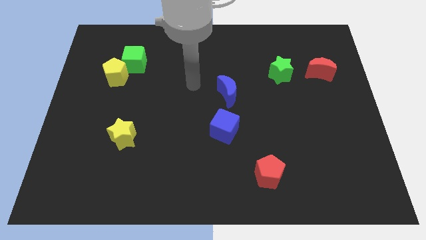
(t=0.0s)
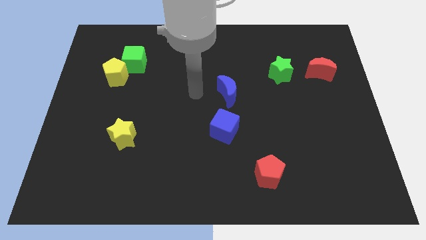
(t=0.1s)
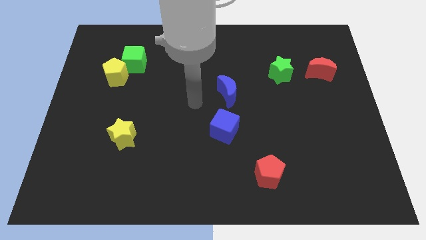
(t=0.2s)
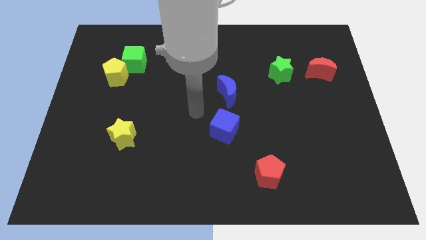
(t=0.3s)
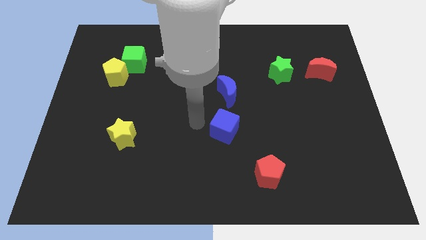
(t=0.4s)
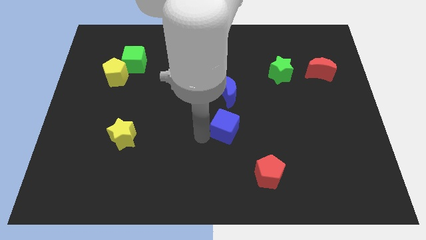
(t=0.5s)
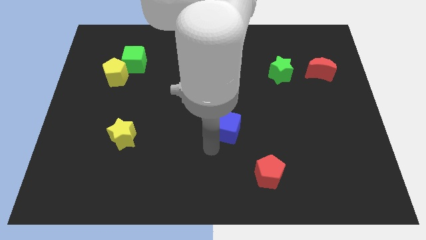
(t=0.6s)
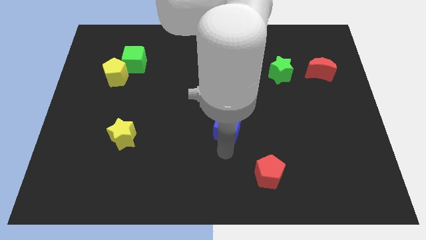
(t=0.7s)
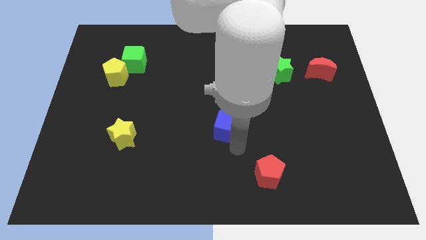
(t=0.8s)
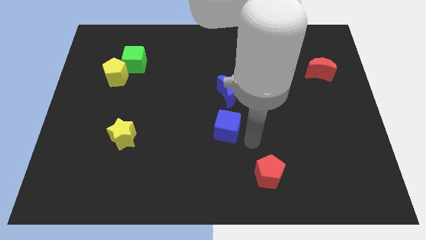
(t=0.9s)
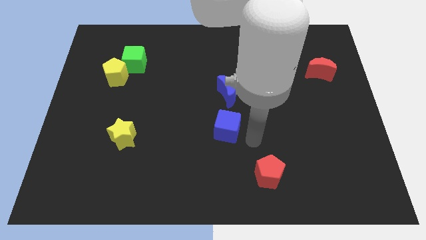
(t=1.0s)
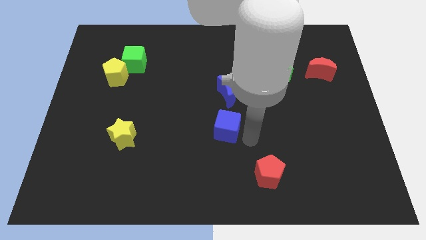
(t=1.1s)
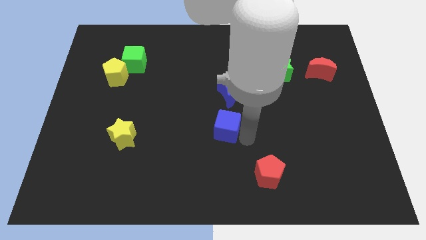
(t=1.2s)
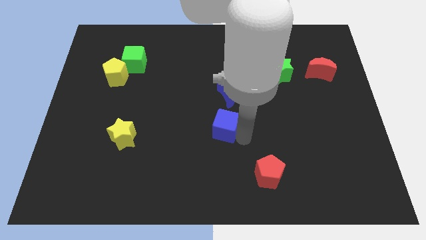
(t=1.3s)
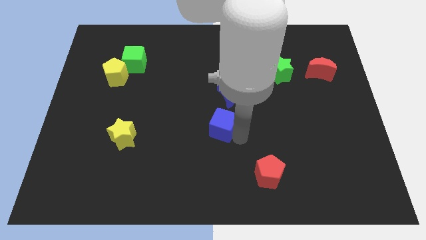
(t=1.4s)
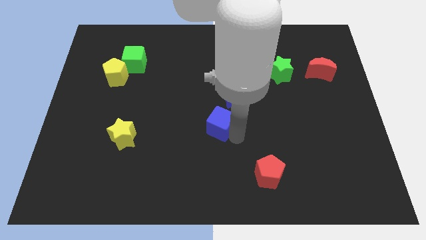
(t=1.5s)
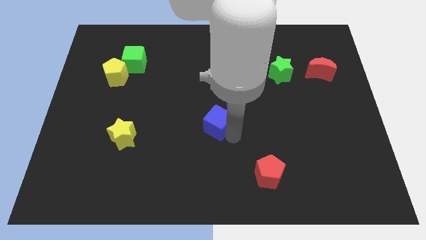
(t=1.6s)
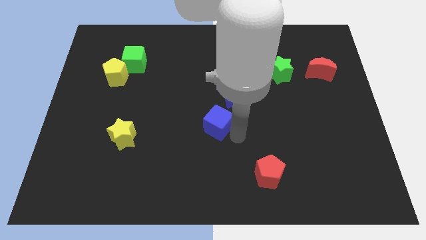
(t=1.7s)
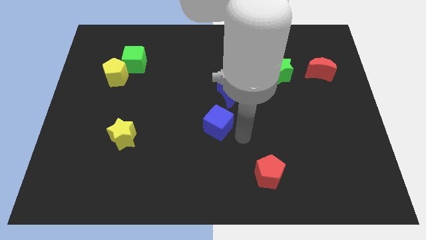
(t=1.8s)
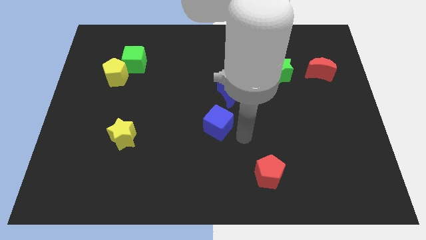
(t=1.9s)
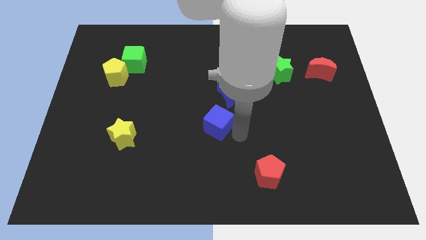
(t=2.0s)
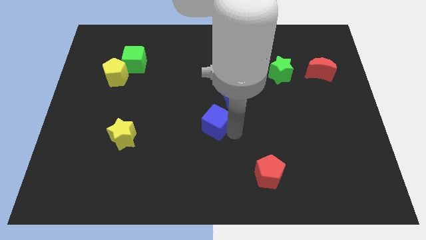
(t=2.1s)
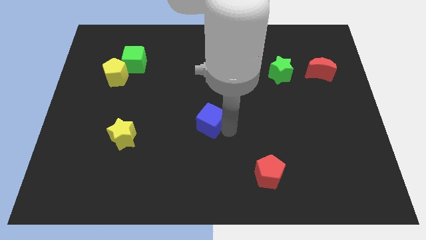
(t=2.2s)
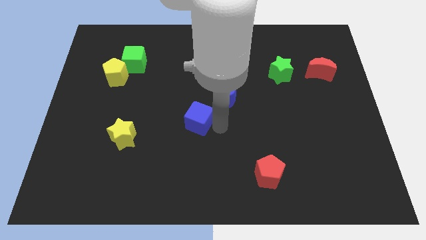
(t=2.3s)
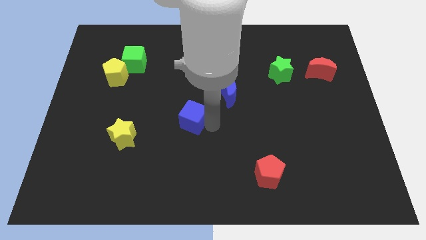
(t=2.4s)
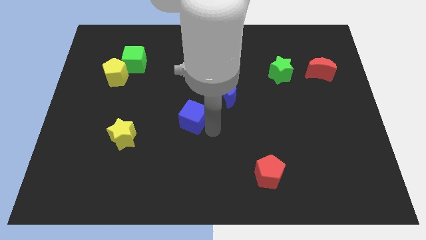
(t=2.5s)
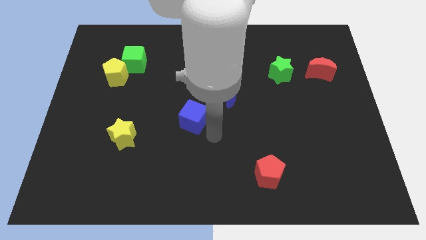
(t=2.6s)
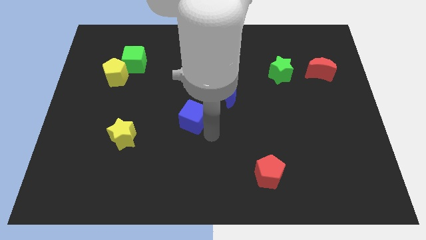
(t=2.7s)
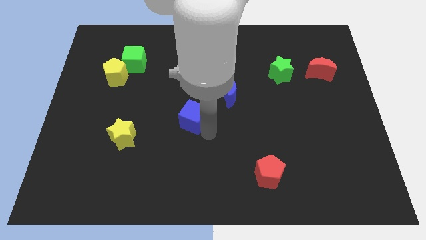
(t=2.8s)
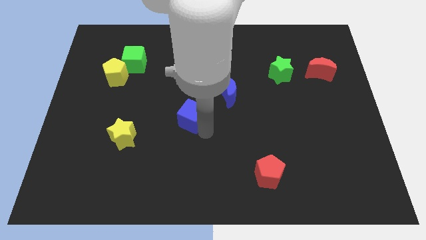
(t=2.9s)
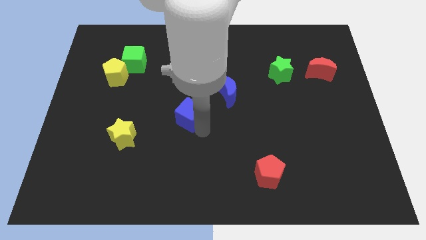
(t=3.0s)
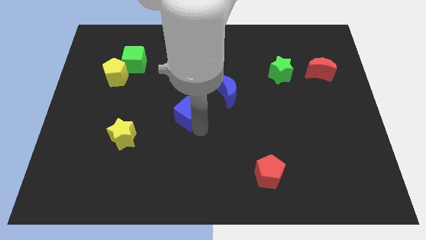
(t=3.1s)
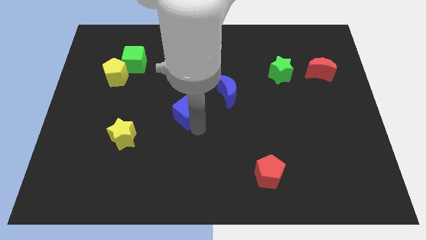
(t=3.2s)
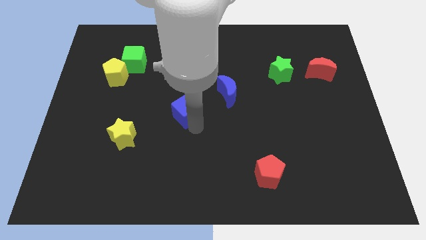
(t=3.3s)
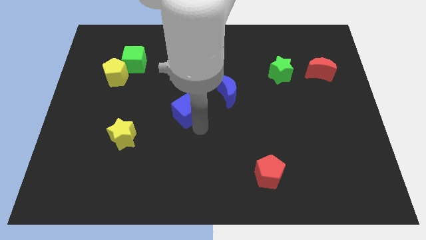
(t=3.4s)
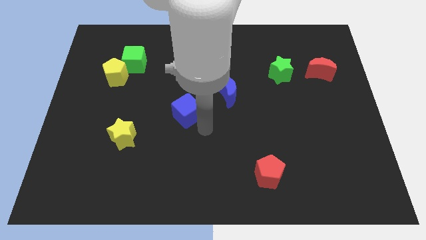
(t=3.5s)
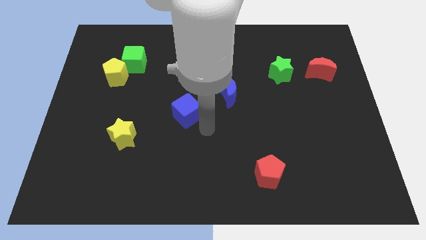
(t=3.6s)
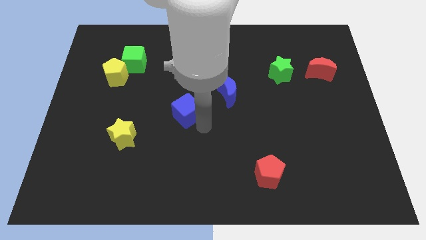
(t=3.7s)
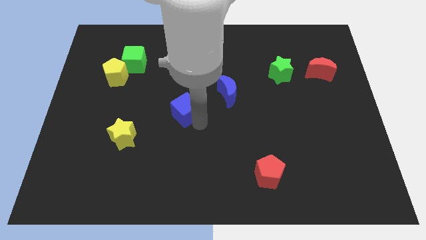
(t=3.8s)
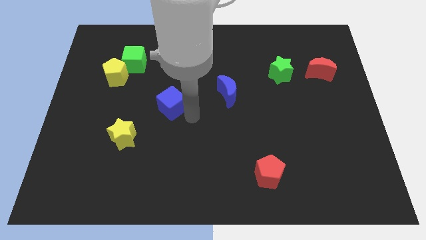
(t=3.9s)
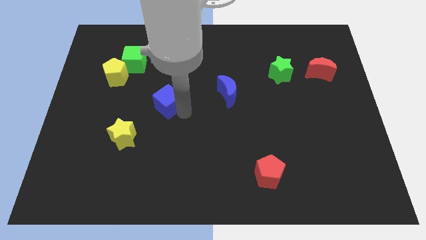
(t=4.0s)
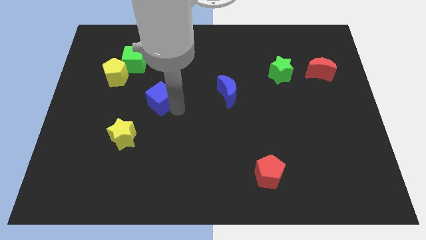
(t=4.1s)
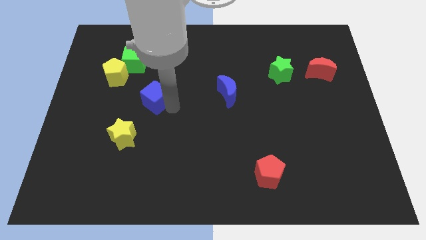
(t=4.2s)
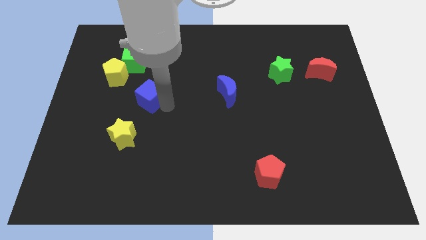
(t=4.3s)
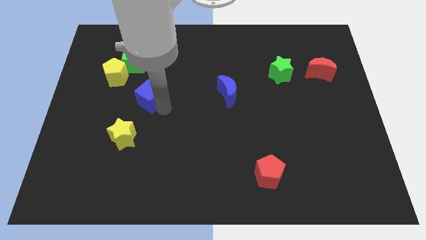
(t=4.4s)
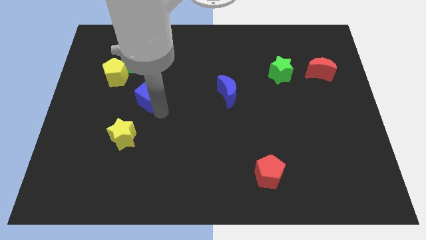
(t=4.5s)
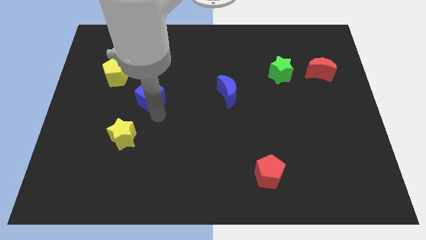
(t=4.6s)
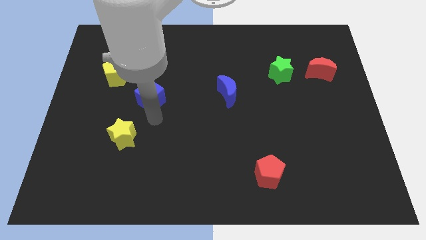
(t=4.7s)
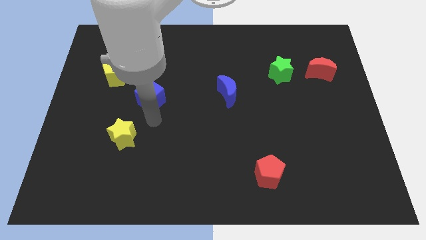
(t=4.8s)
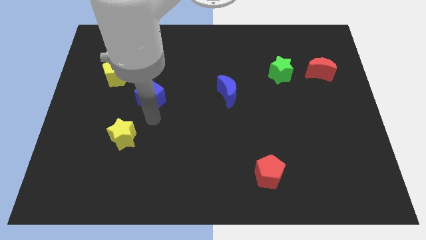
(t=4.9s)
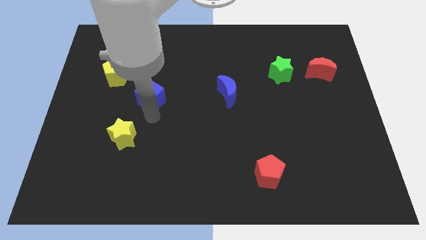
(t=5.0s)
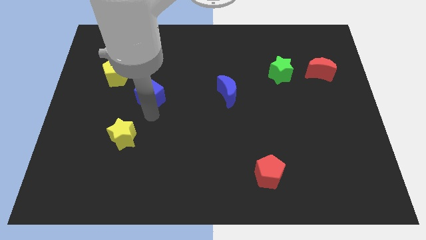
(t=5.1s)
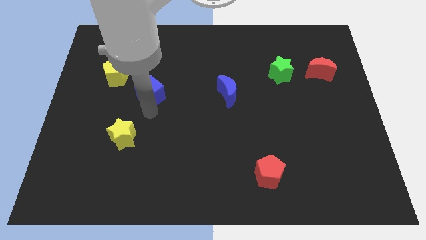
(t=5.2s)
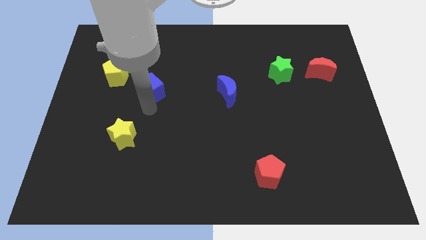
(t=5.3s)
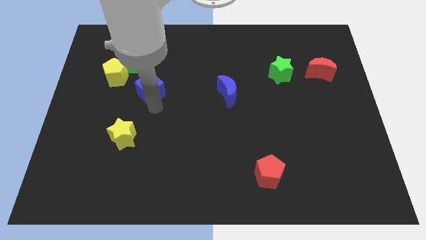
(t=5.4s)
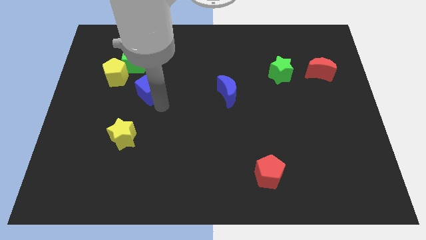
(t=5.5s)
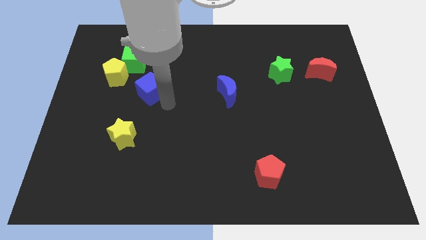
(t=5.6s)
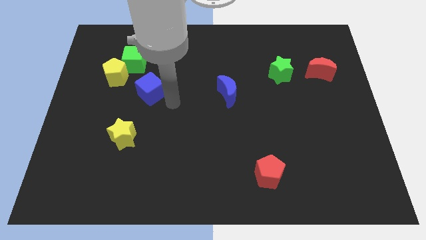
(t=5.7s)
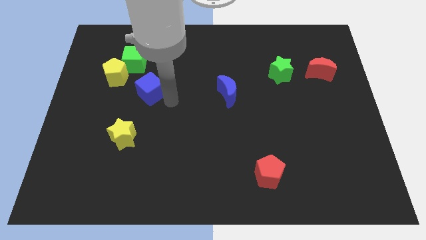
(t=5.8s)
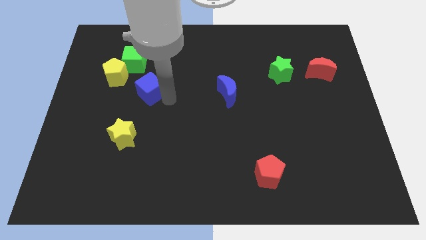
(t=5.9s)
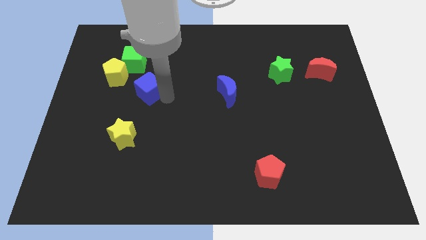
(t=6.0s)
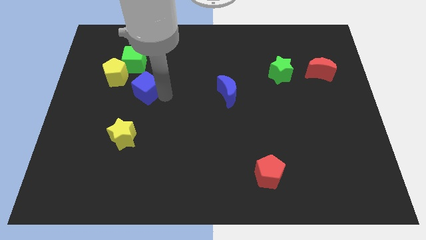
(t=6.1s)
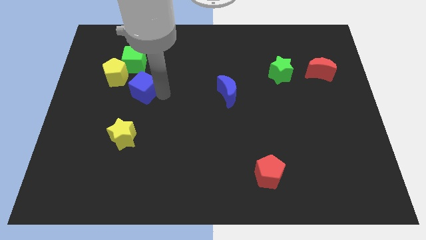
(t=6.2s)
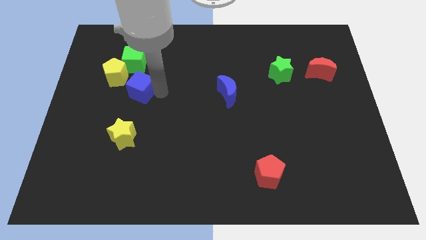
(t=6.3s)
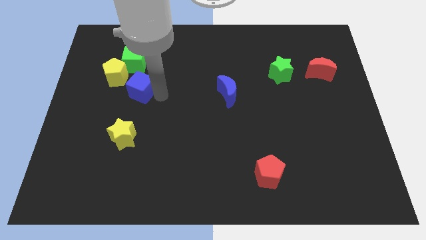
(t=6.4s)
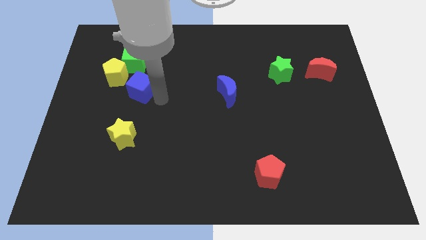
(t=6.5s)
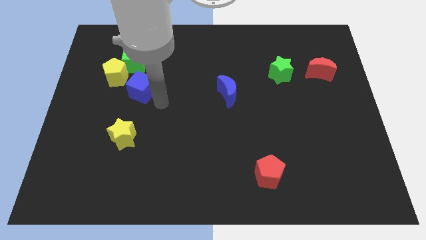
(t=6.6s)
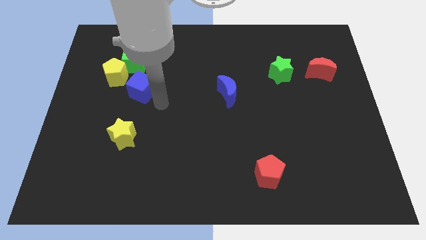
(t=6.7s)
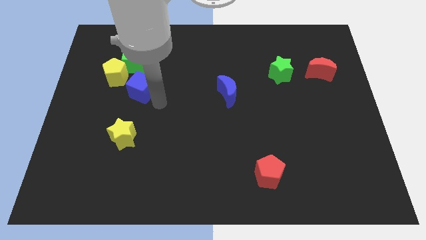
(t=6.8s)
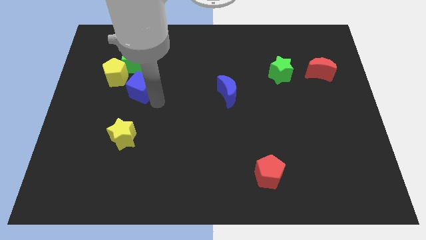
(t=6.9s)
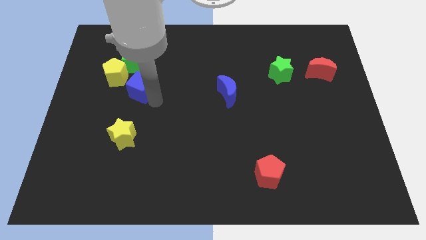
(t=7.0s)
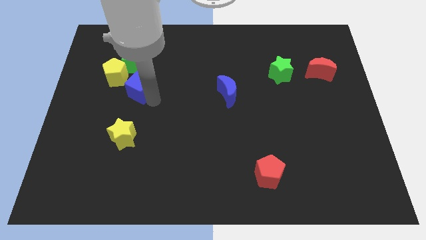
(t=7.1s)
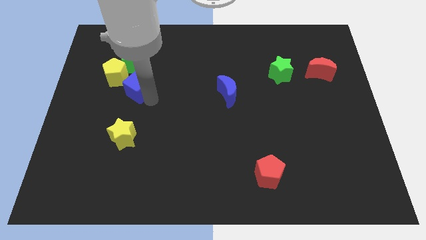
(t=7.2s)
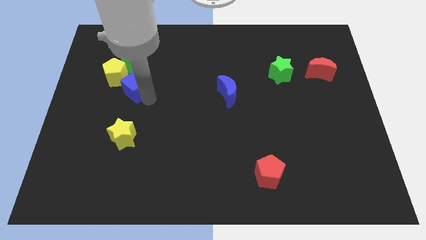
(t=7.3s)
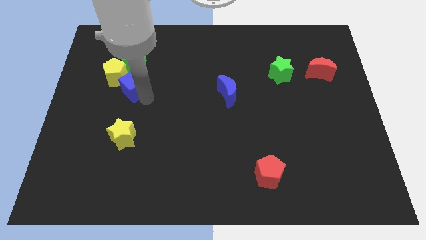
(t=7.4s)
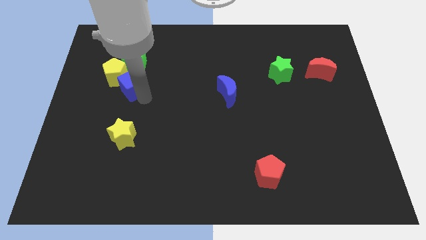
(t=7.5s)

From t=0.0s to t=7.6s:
move the blue cube towards the yellow pentagon

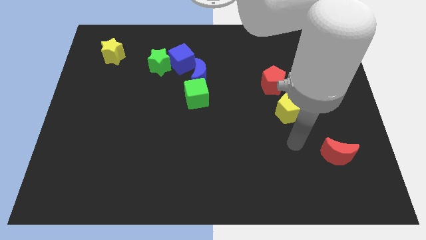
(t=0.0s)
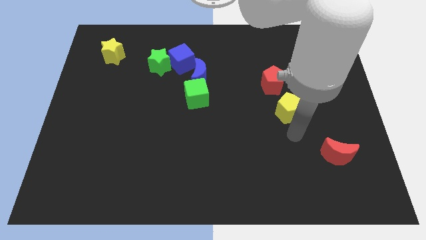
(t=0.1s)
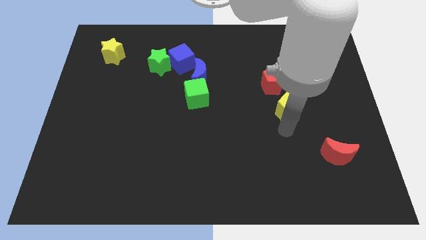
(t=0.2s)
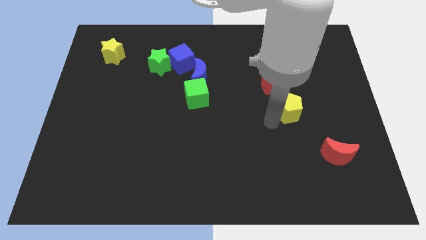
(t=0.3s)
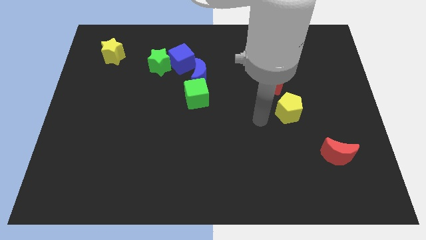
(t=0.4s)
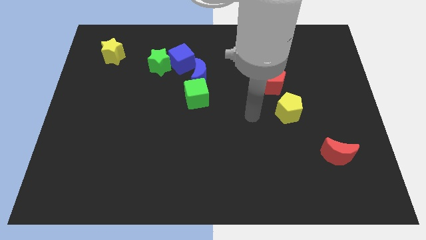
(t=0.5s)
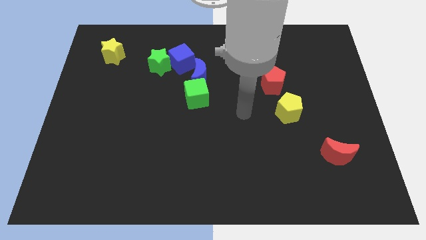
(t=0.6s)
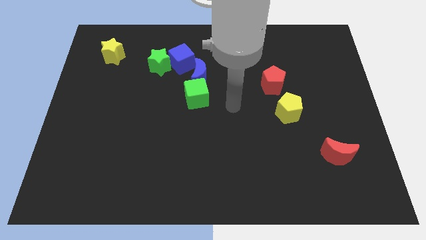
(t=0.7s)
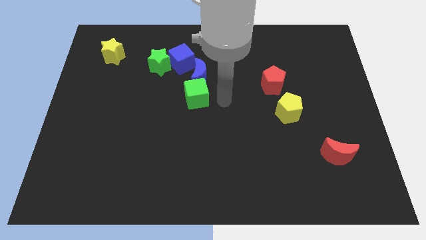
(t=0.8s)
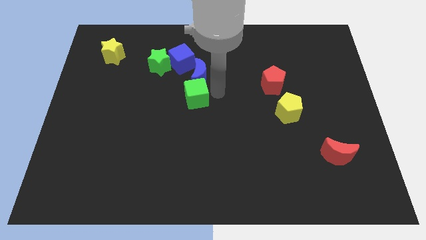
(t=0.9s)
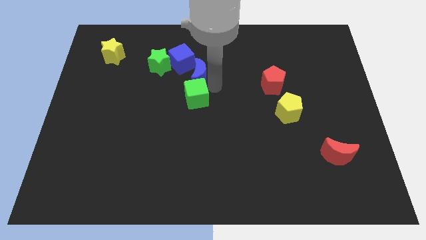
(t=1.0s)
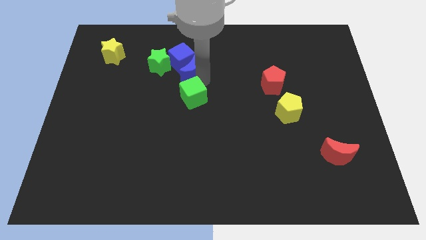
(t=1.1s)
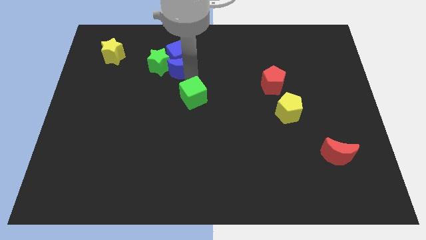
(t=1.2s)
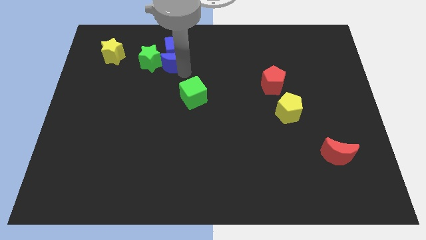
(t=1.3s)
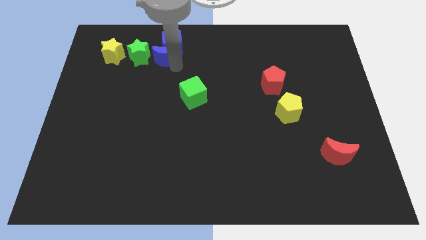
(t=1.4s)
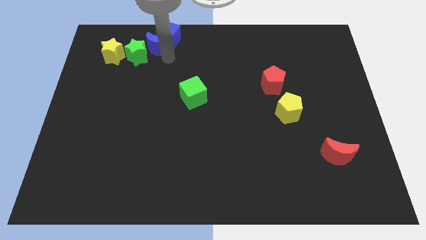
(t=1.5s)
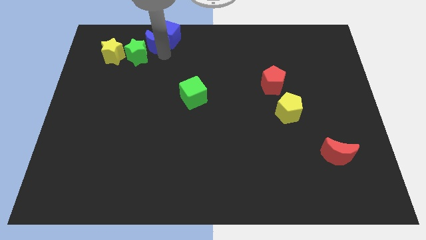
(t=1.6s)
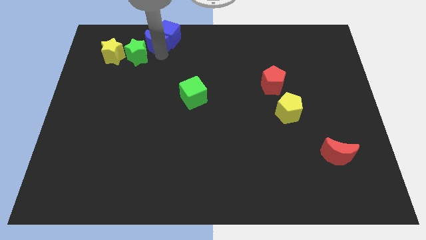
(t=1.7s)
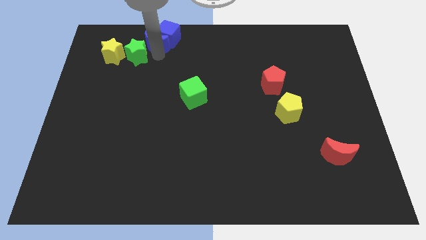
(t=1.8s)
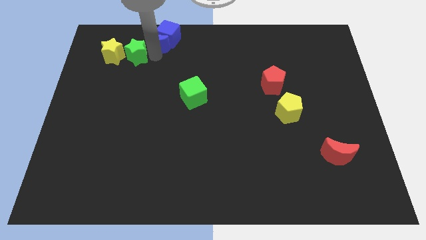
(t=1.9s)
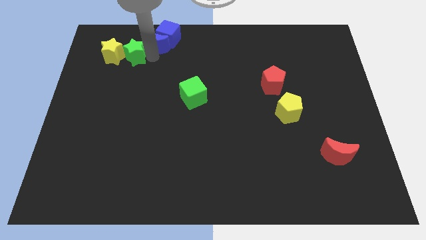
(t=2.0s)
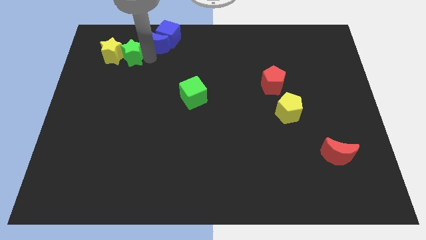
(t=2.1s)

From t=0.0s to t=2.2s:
put the green star next to the yellow star
